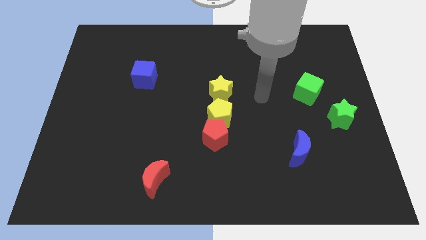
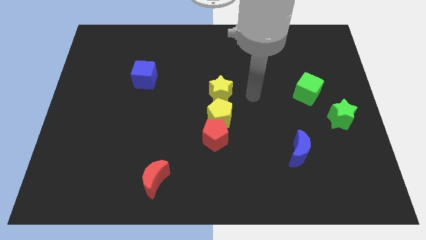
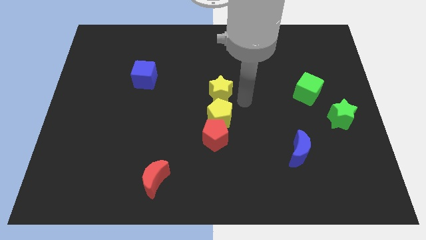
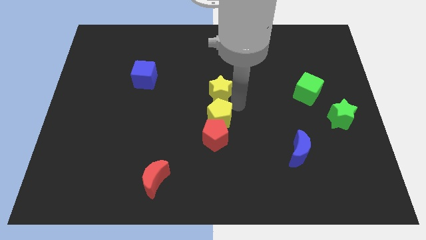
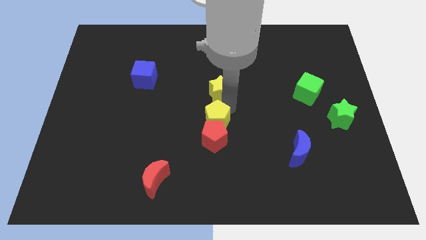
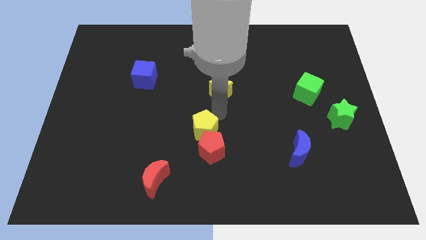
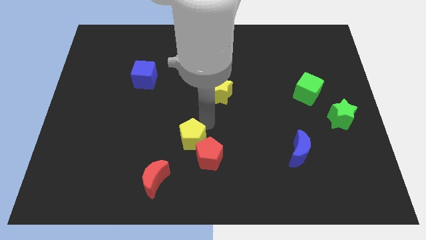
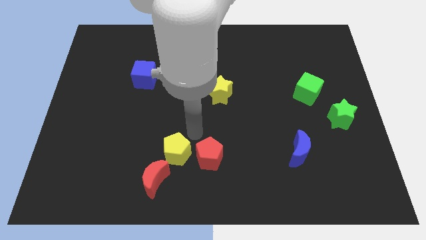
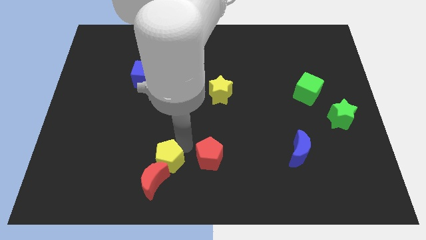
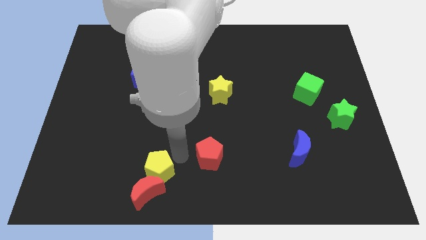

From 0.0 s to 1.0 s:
pull the red pentagon apart from the yellow pentagon

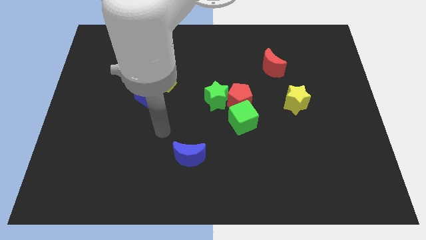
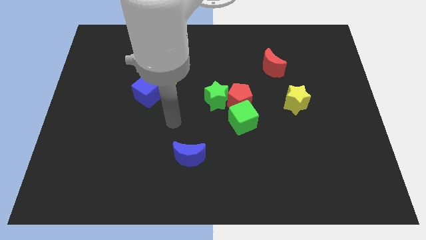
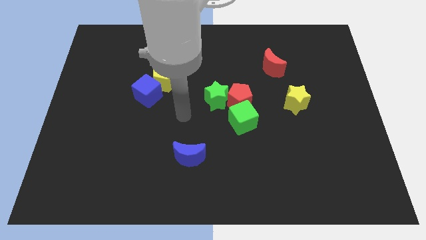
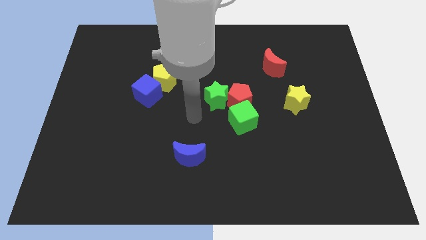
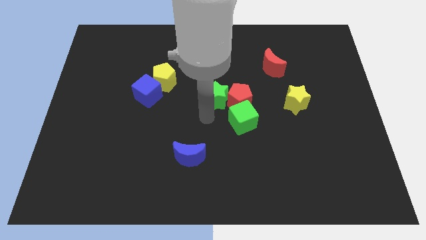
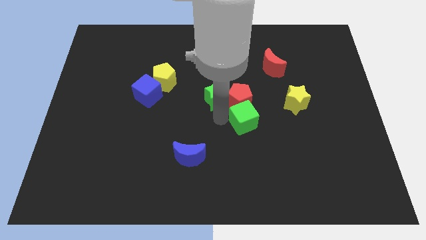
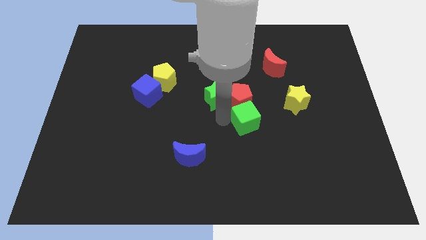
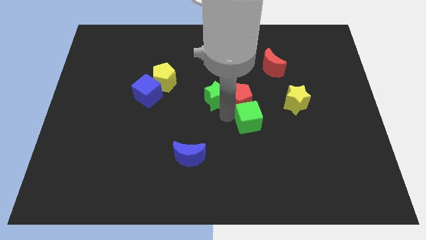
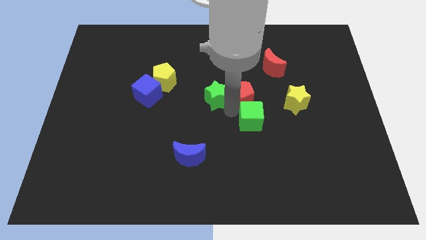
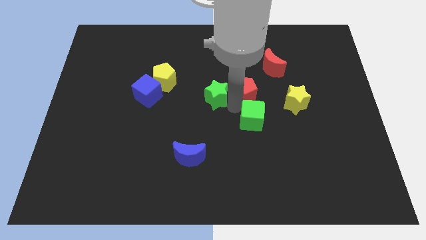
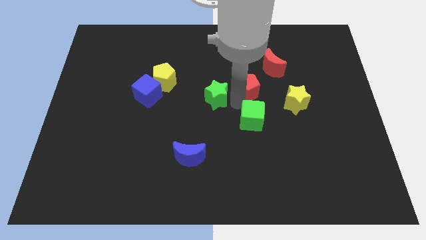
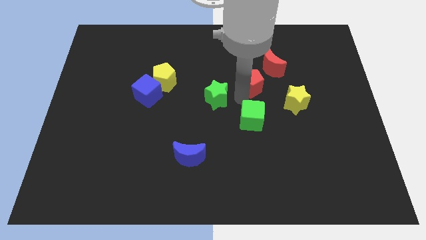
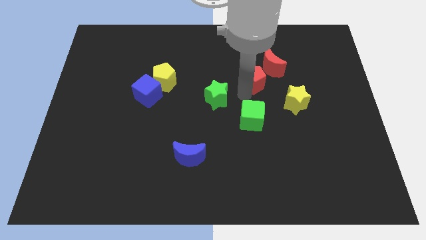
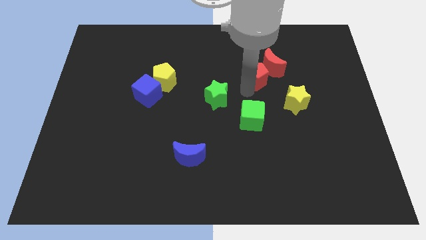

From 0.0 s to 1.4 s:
pull the red pentagon apart from the green star and green cube

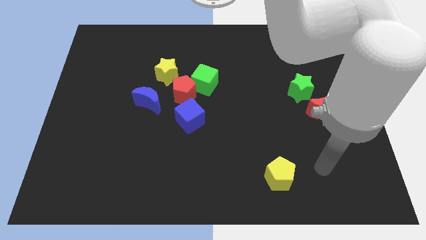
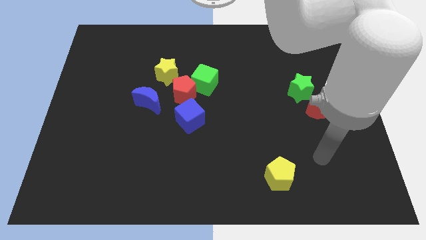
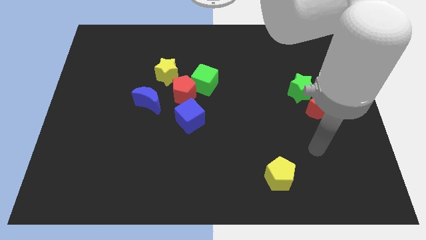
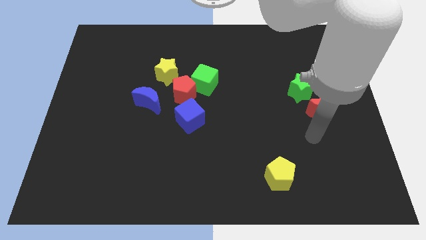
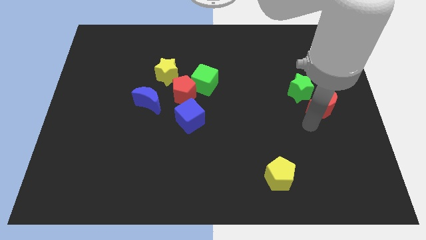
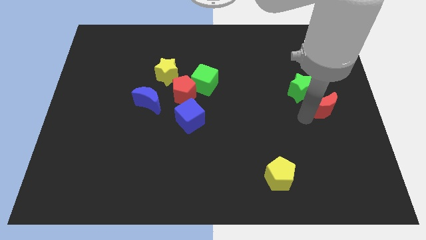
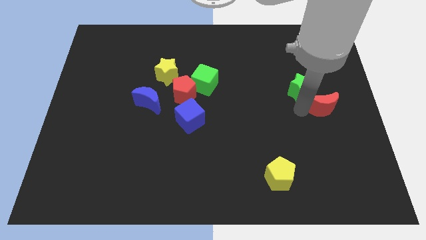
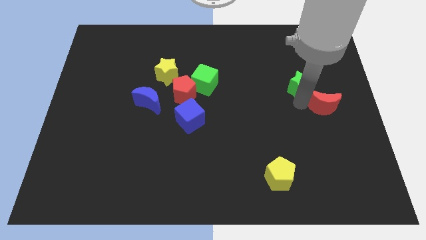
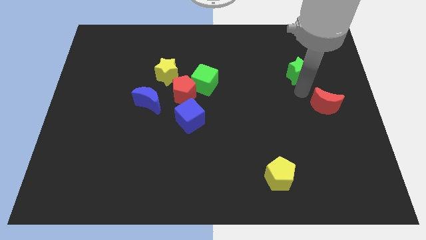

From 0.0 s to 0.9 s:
separate the red moon from the green star

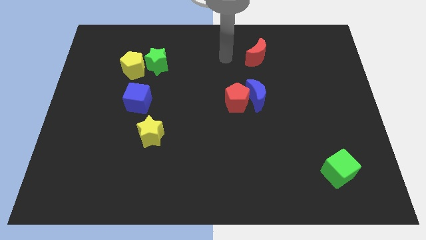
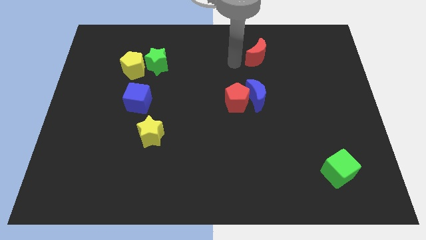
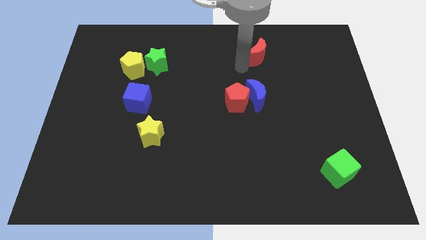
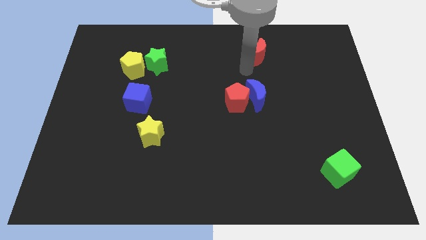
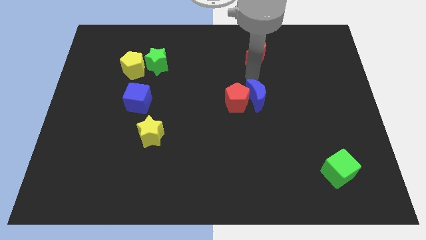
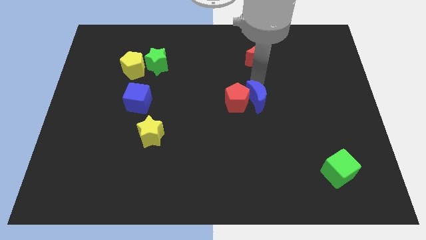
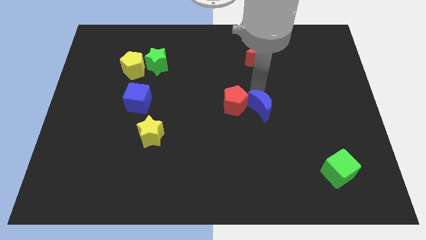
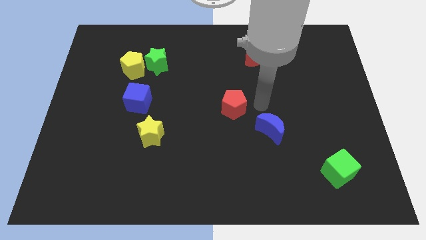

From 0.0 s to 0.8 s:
separate the red pentagon from the blue moon

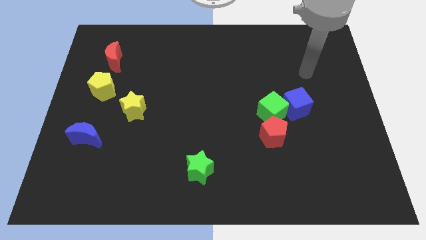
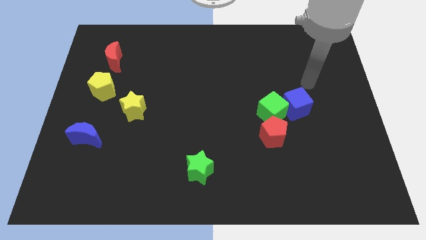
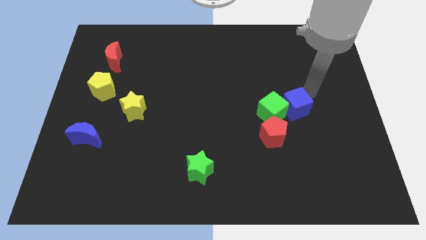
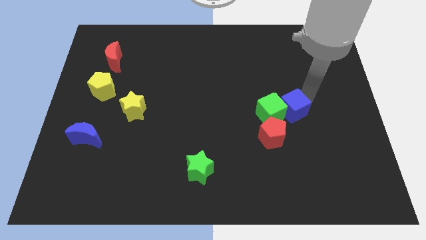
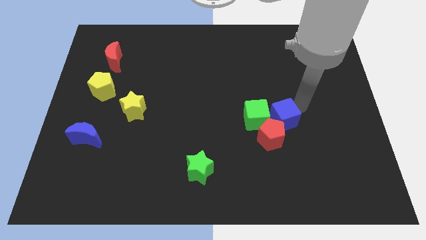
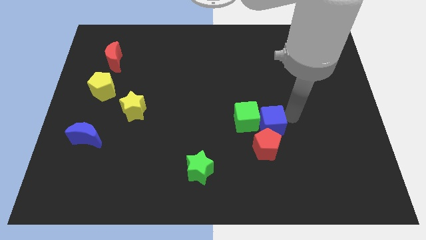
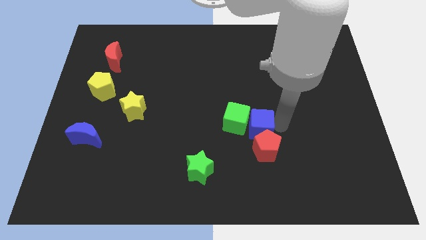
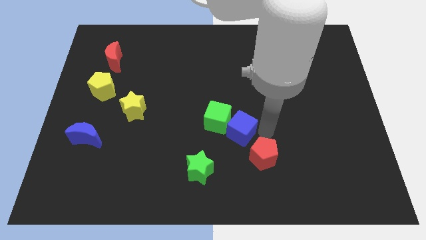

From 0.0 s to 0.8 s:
separate the green cube from the blue cube and red pentagon

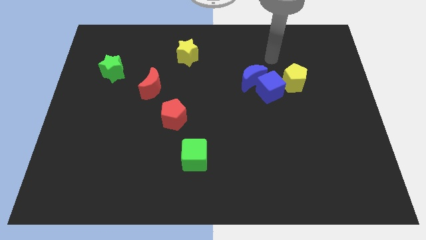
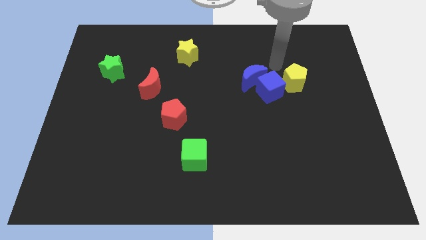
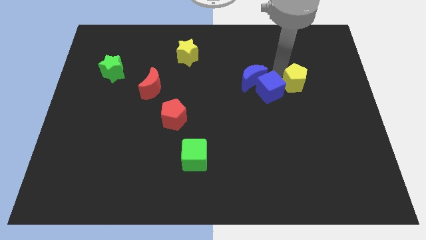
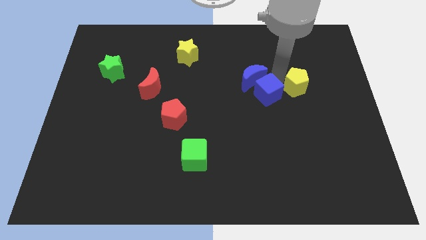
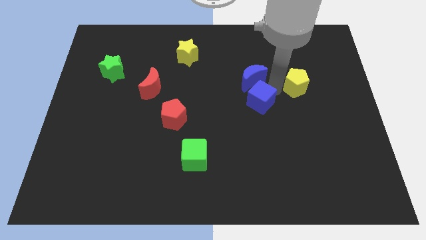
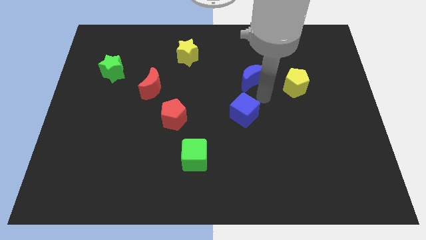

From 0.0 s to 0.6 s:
pull the blue moon apart from the blue cube

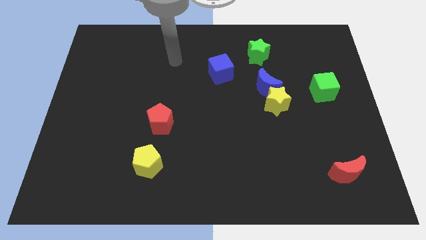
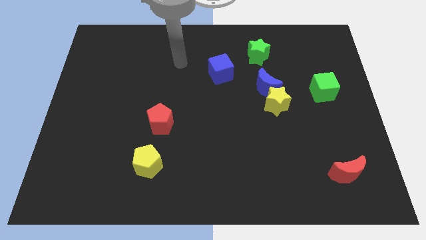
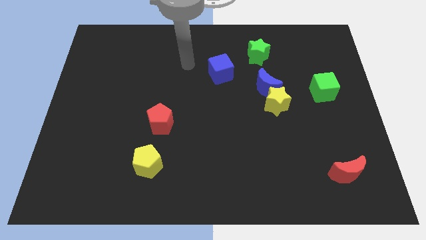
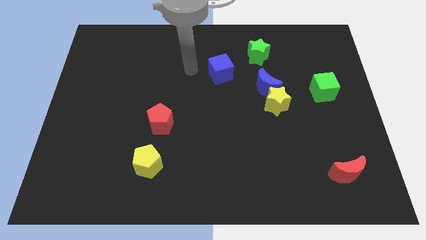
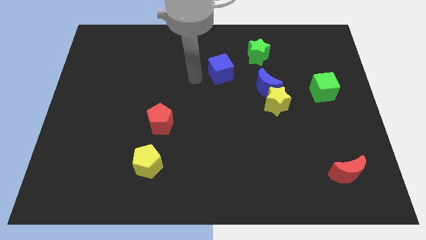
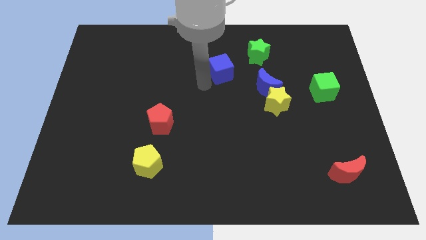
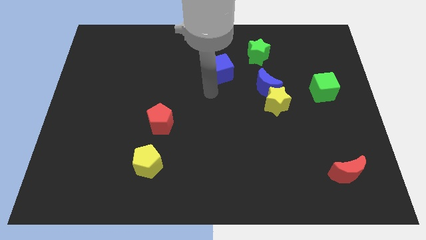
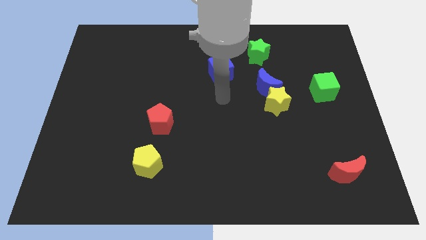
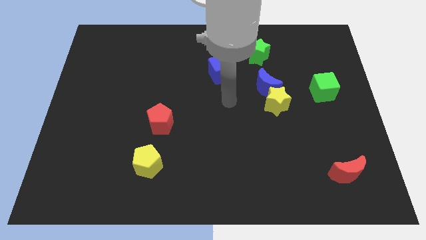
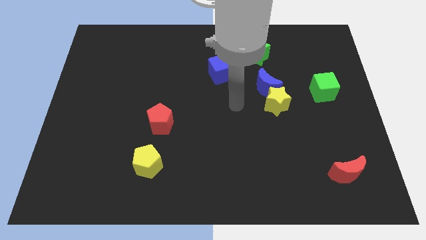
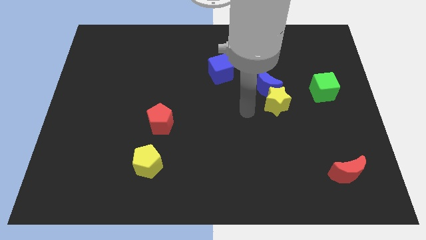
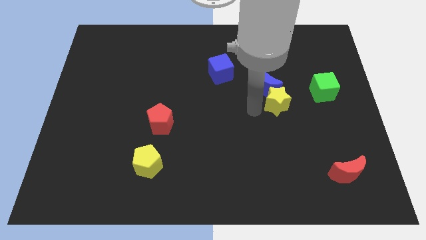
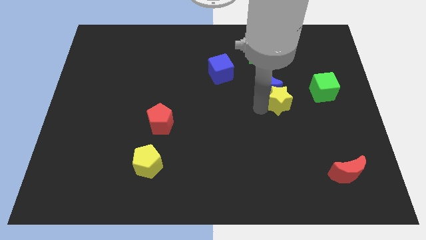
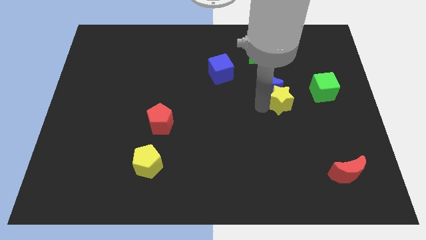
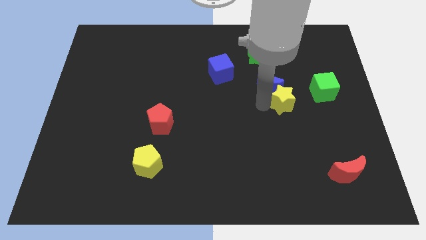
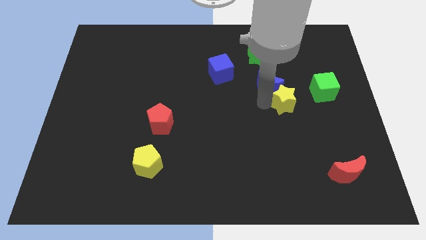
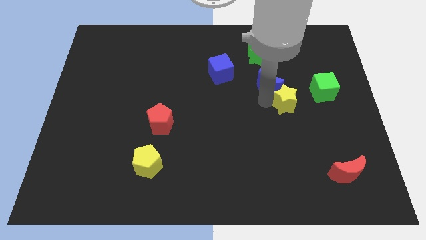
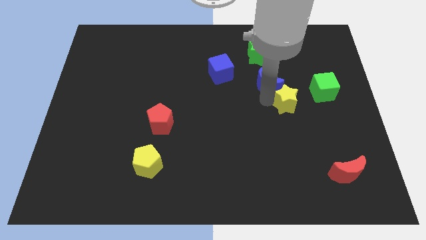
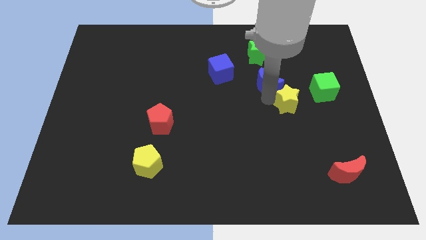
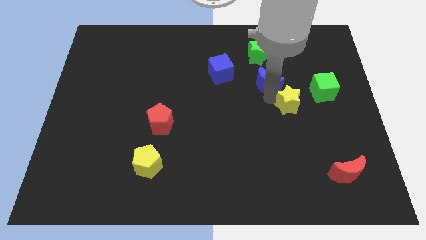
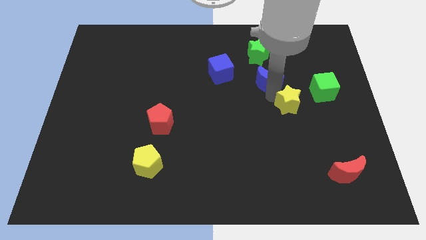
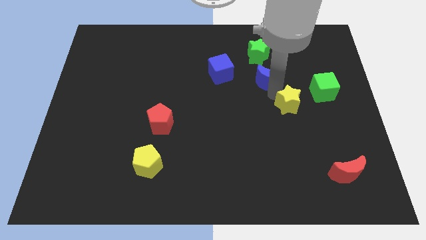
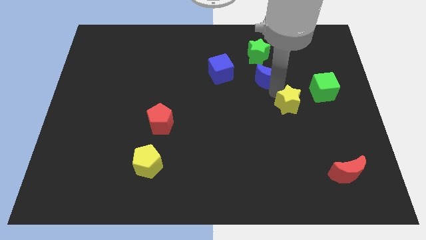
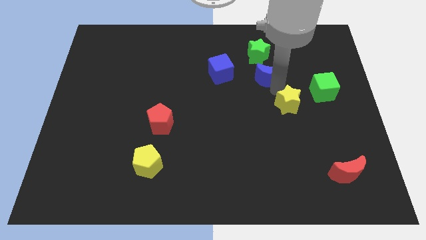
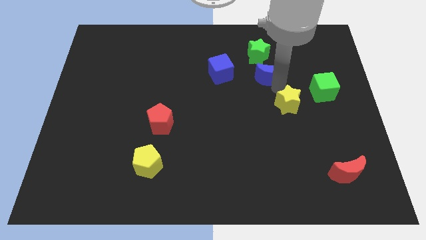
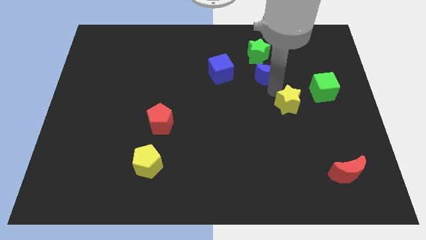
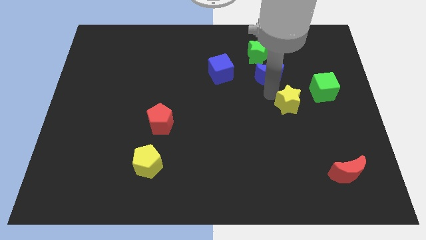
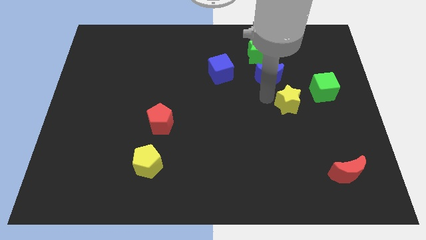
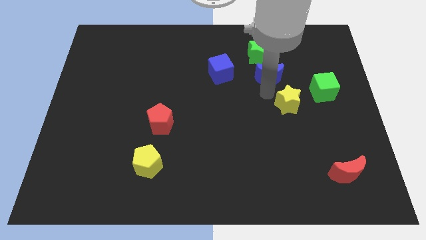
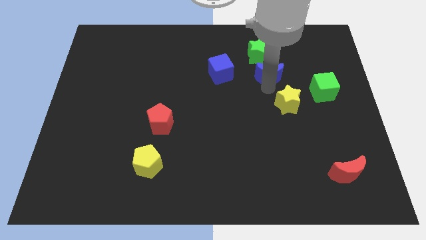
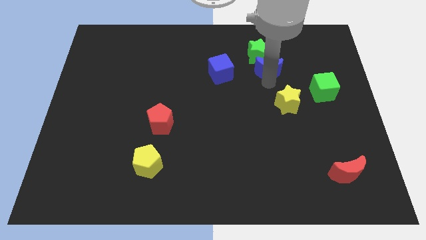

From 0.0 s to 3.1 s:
separate the blue moon from the yellow star

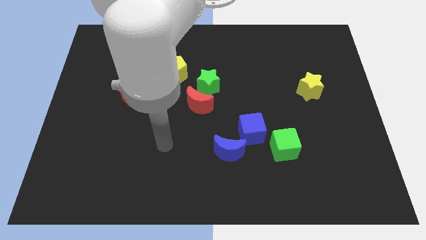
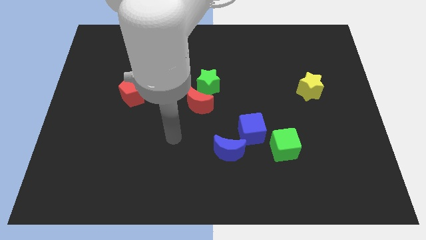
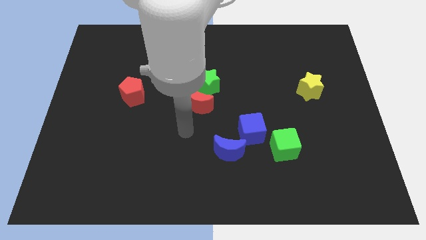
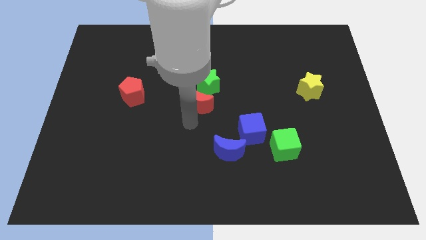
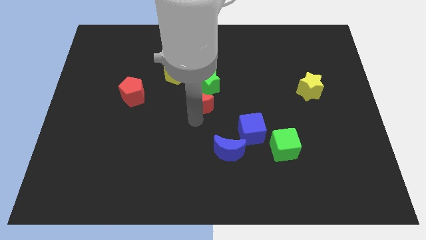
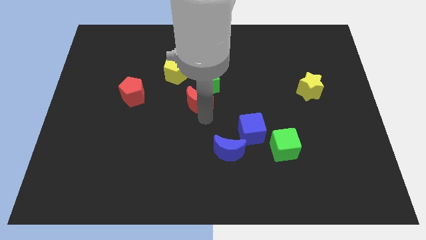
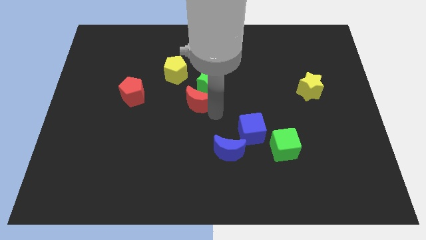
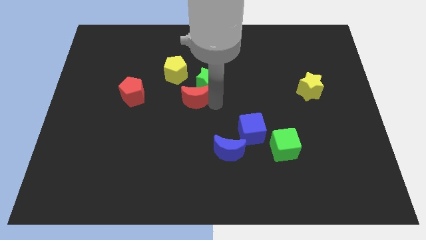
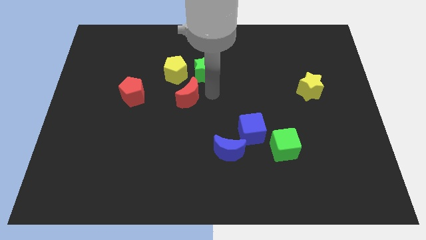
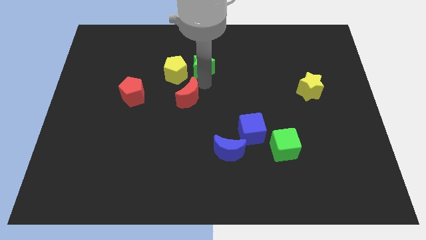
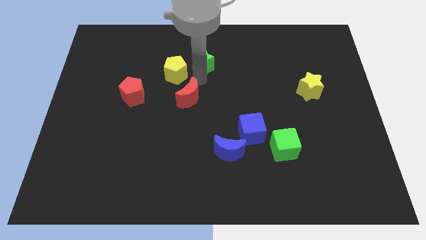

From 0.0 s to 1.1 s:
move the red moon away from the green star
